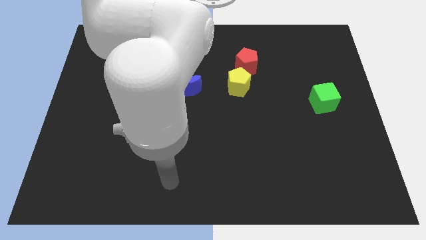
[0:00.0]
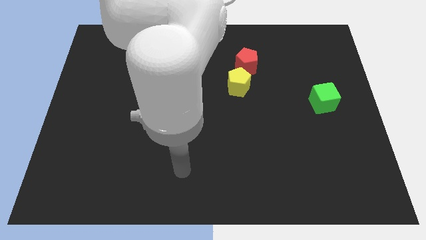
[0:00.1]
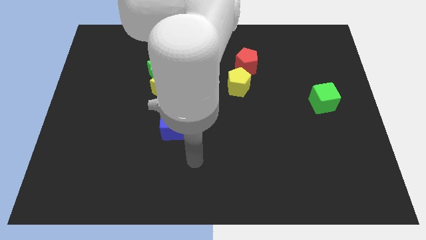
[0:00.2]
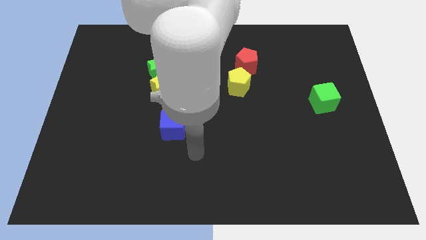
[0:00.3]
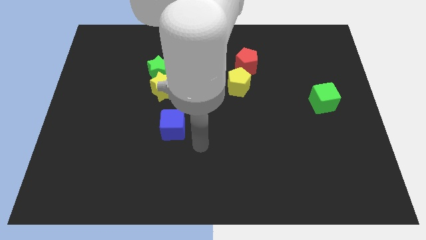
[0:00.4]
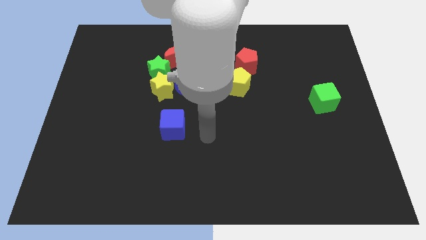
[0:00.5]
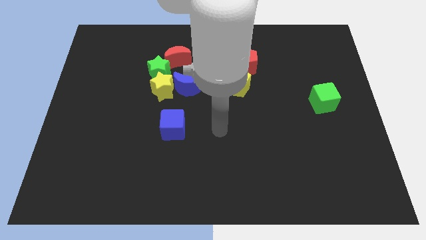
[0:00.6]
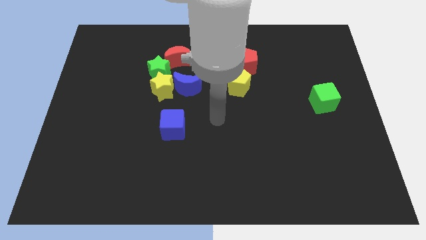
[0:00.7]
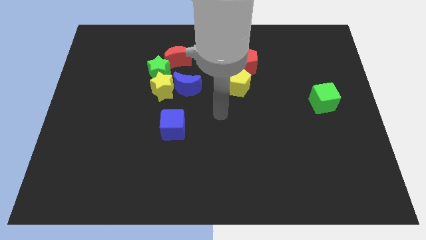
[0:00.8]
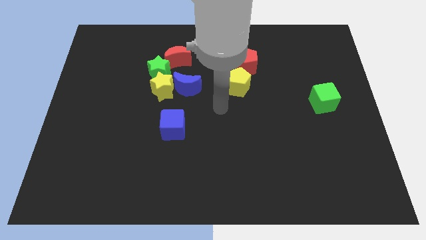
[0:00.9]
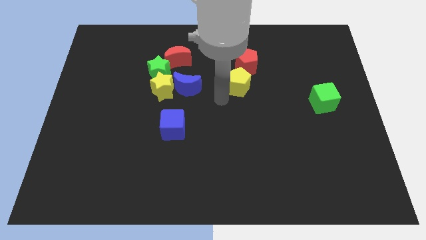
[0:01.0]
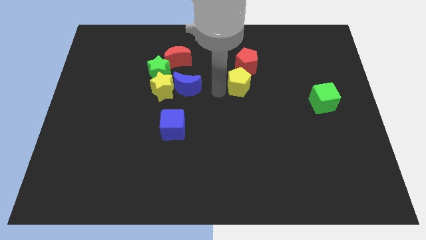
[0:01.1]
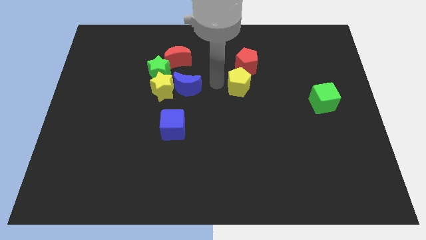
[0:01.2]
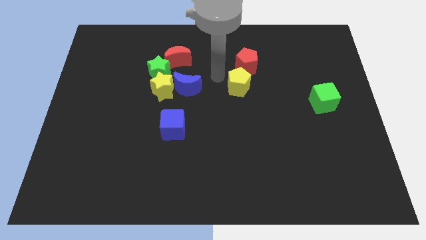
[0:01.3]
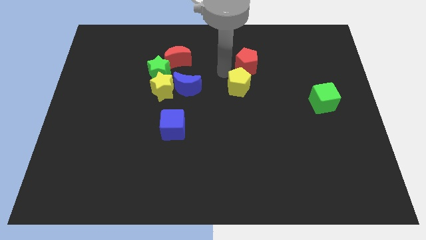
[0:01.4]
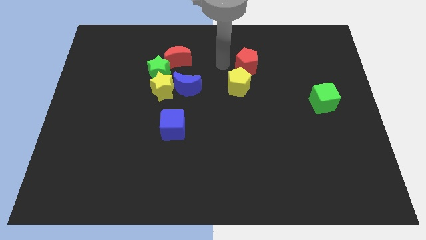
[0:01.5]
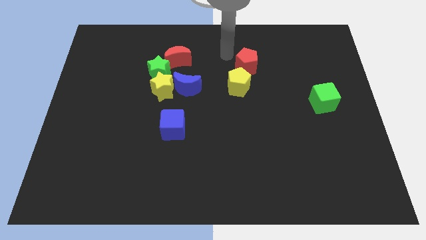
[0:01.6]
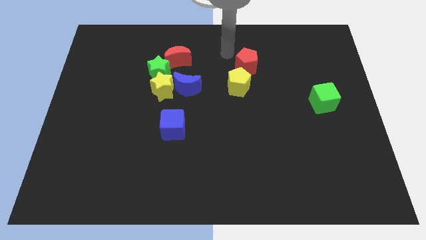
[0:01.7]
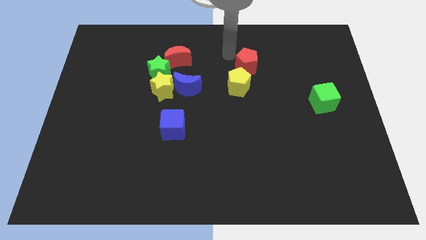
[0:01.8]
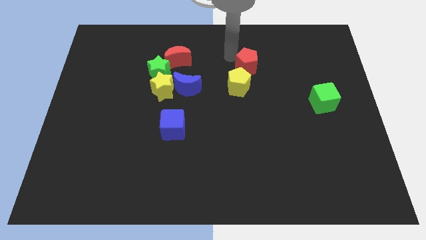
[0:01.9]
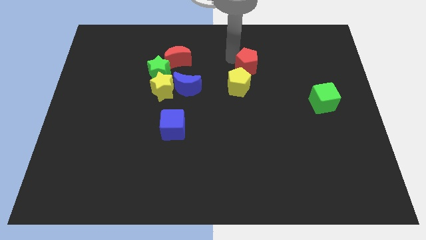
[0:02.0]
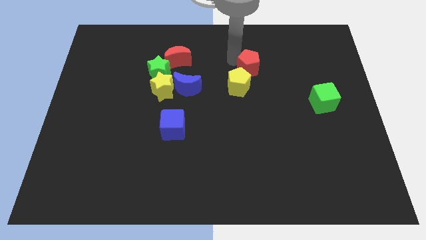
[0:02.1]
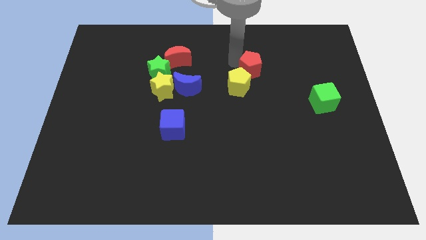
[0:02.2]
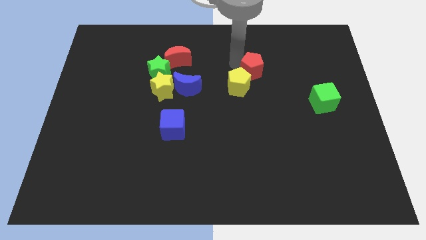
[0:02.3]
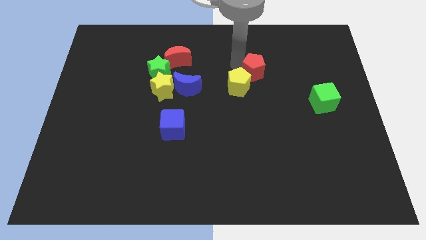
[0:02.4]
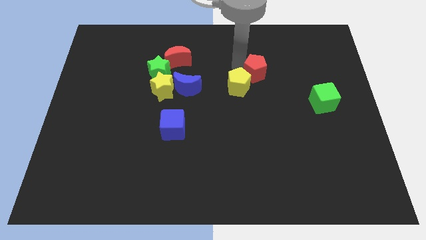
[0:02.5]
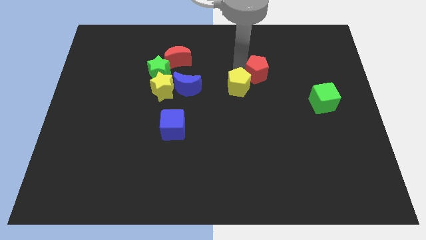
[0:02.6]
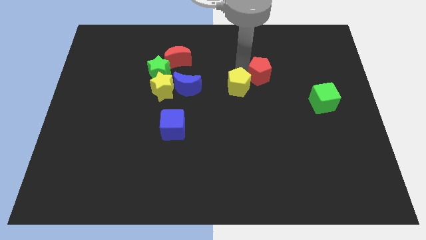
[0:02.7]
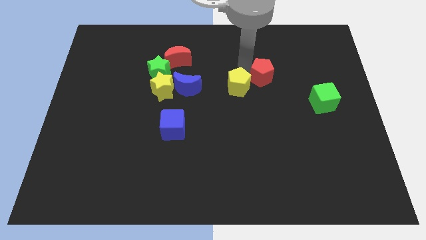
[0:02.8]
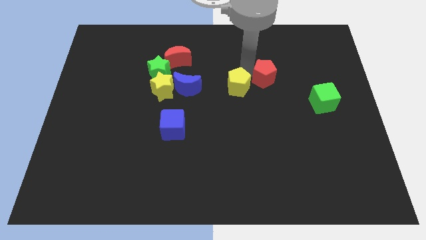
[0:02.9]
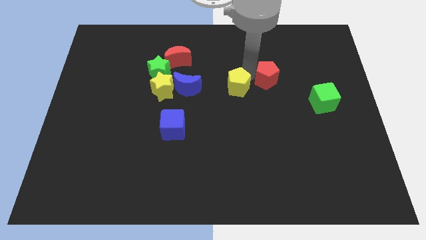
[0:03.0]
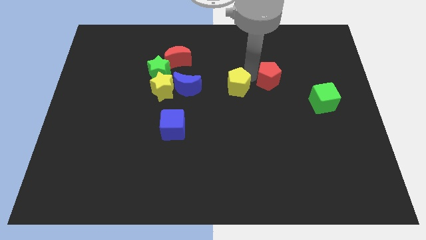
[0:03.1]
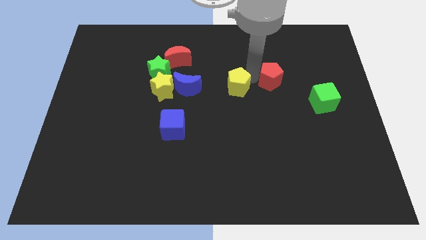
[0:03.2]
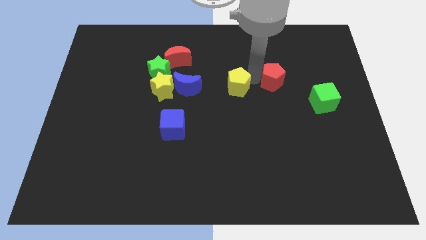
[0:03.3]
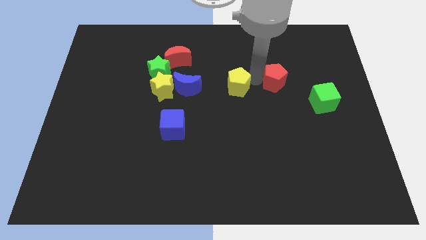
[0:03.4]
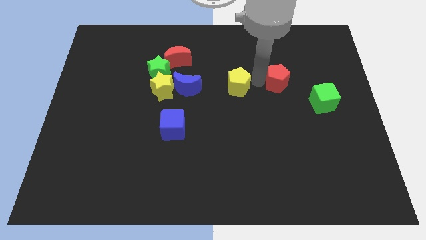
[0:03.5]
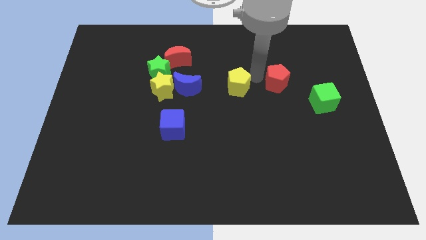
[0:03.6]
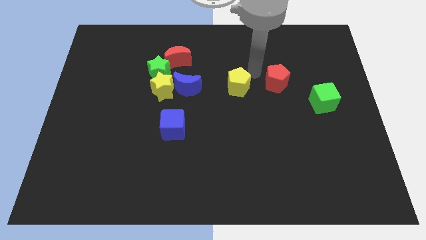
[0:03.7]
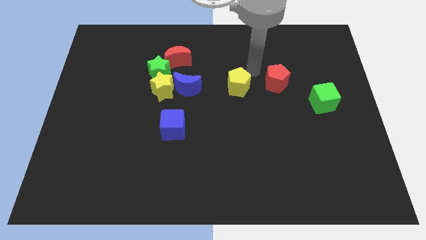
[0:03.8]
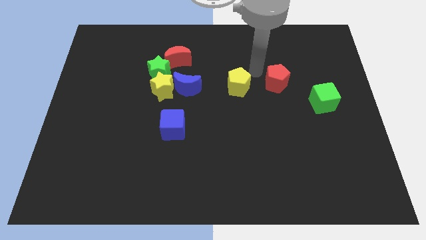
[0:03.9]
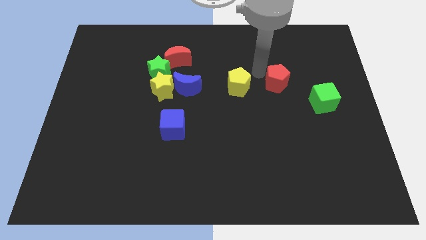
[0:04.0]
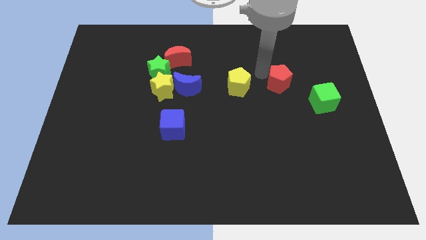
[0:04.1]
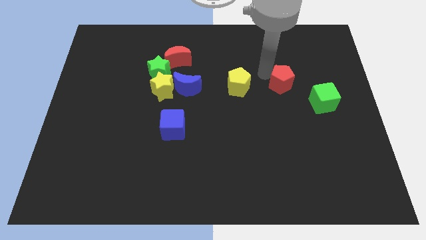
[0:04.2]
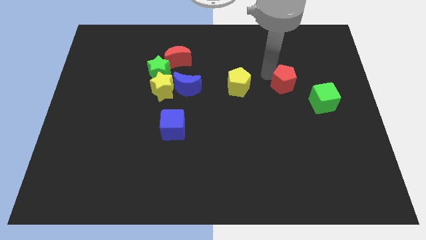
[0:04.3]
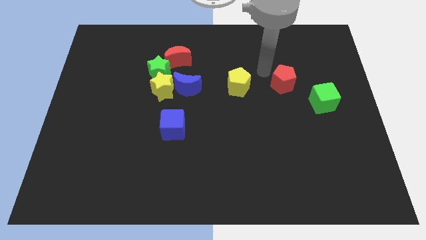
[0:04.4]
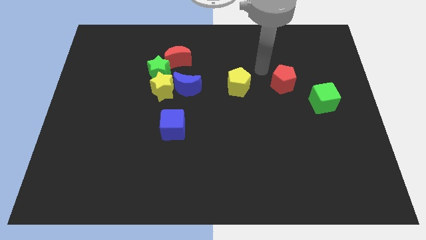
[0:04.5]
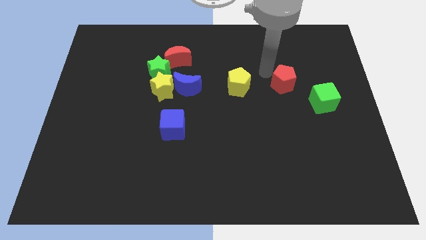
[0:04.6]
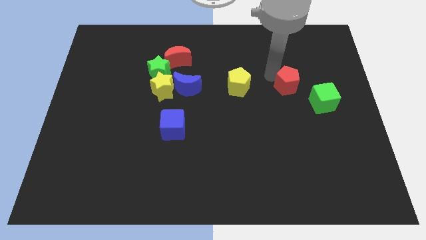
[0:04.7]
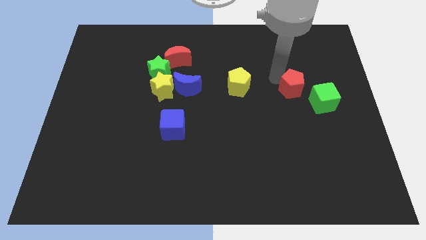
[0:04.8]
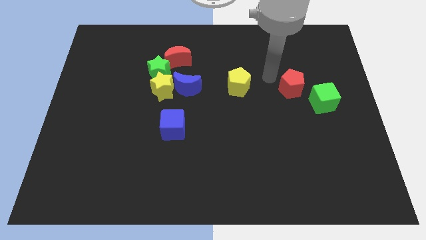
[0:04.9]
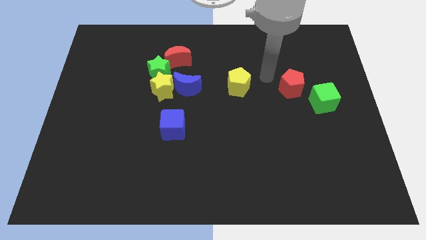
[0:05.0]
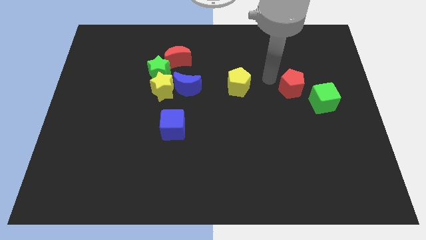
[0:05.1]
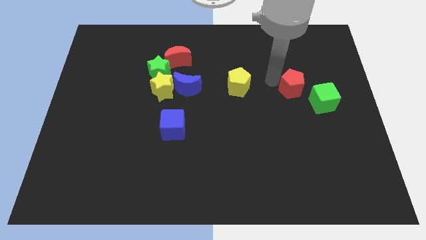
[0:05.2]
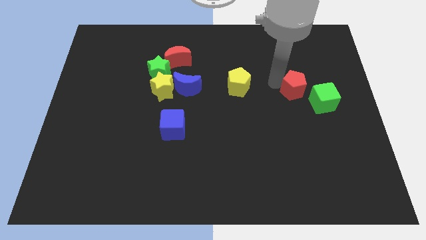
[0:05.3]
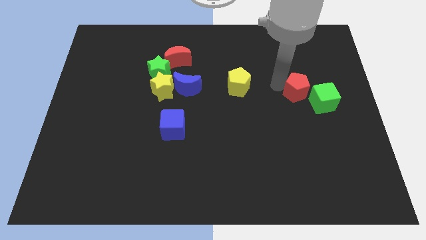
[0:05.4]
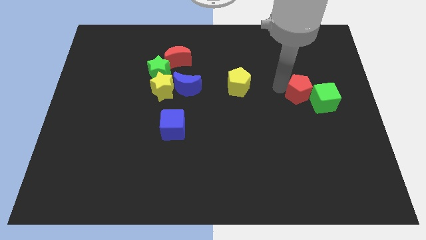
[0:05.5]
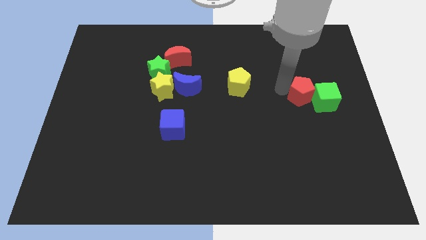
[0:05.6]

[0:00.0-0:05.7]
put the red pentagon to the green cube

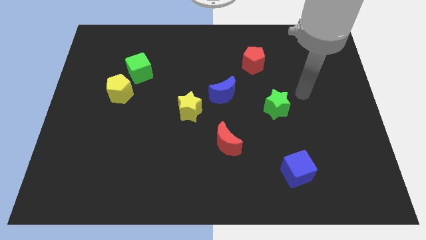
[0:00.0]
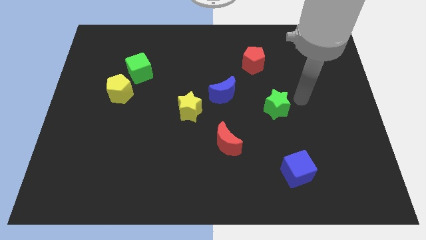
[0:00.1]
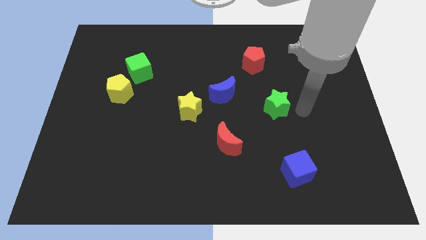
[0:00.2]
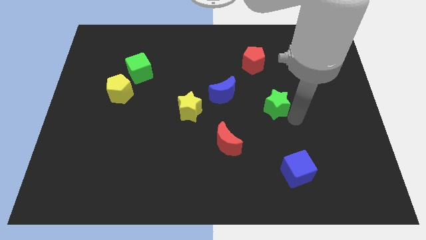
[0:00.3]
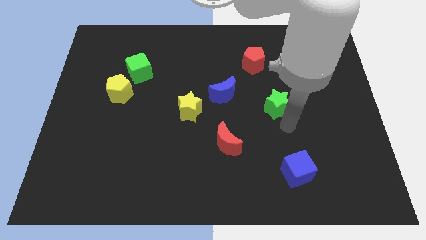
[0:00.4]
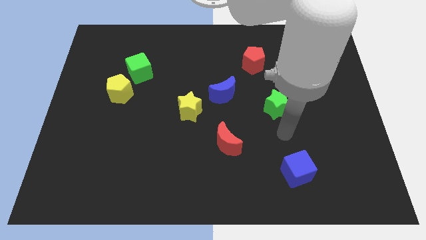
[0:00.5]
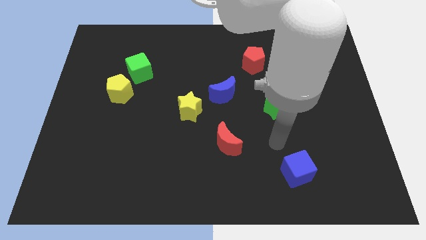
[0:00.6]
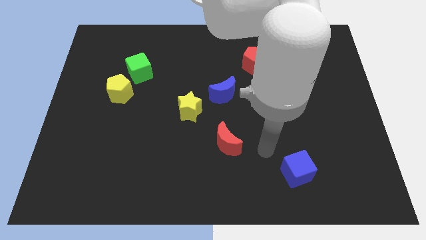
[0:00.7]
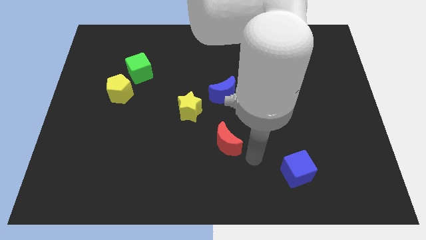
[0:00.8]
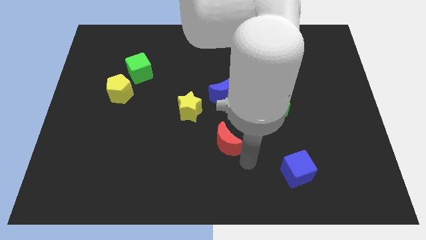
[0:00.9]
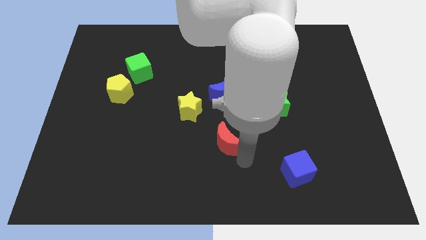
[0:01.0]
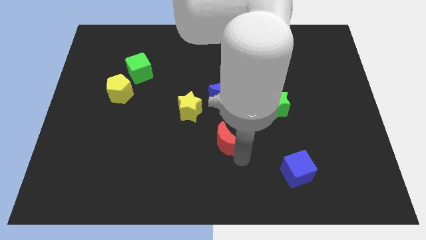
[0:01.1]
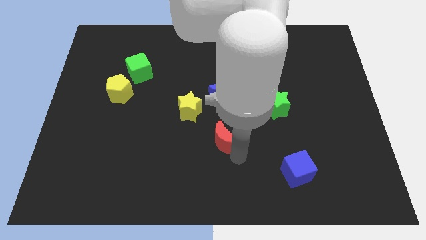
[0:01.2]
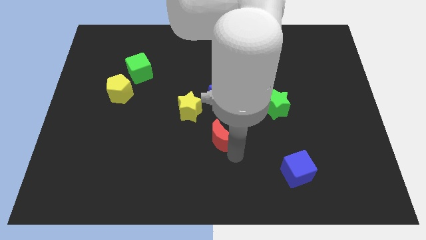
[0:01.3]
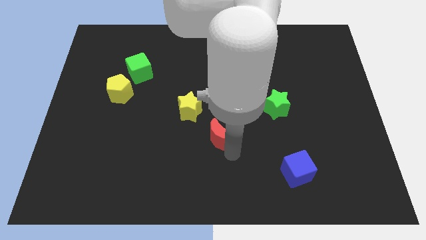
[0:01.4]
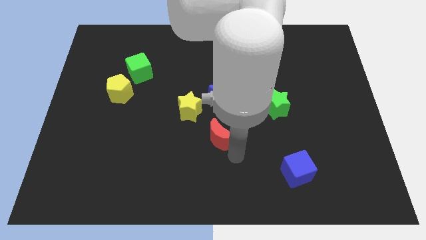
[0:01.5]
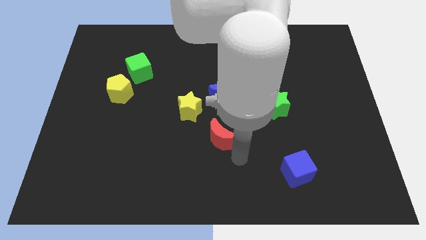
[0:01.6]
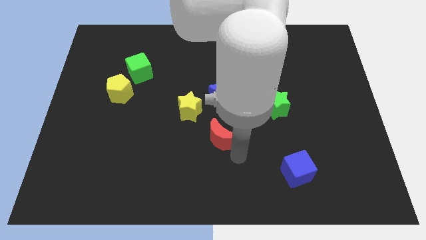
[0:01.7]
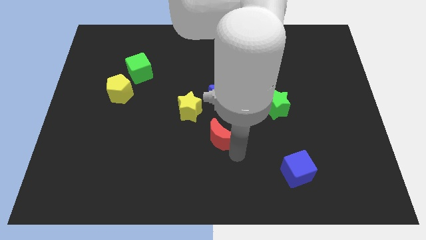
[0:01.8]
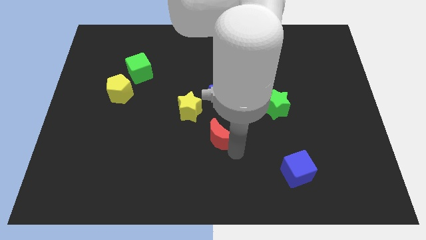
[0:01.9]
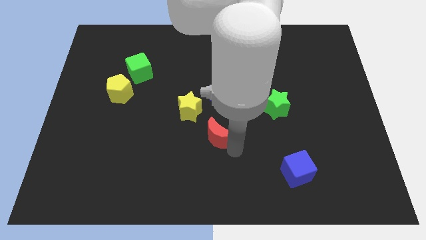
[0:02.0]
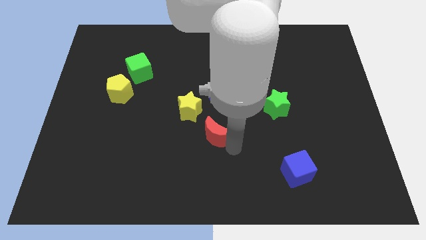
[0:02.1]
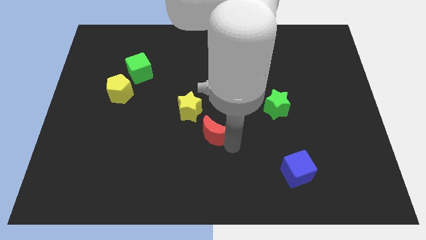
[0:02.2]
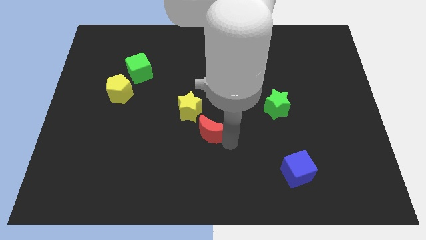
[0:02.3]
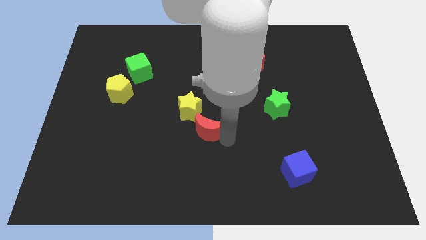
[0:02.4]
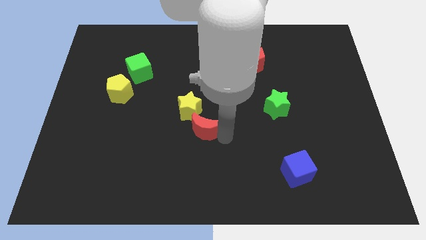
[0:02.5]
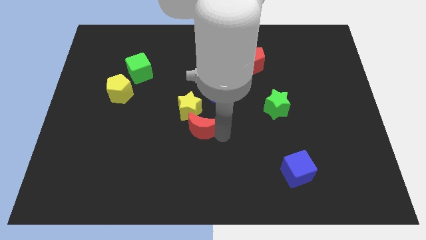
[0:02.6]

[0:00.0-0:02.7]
move the red moon to the yellow star
